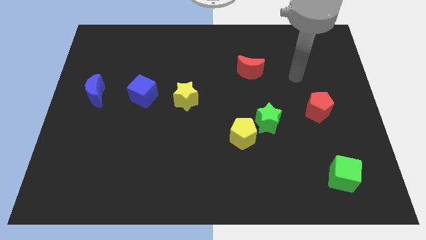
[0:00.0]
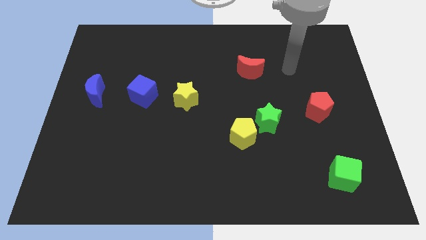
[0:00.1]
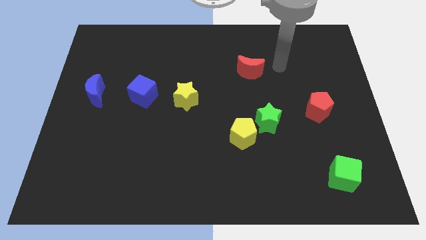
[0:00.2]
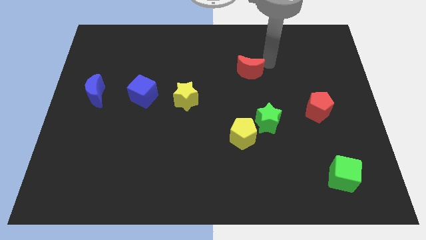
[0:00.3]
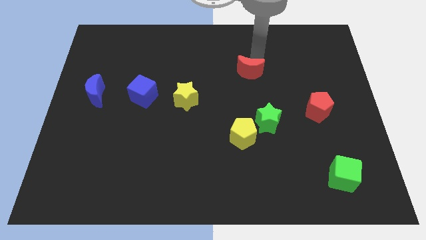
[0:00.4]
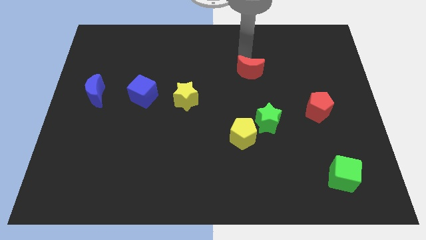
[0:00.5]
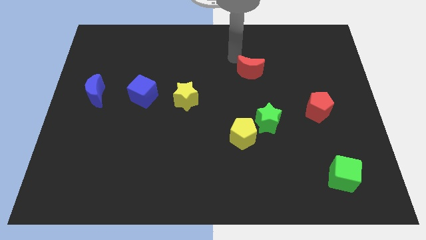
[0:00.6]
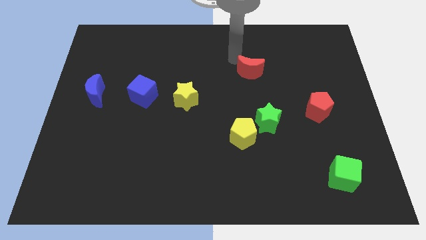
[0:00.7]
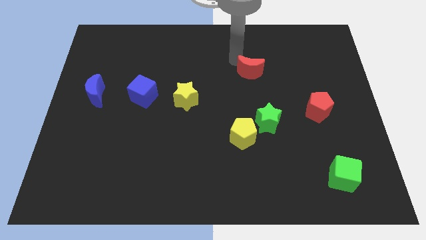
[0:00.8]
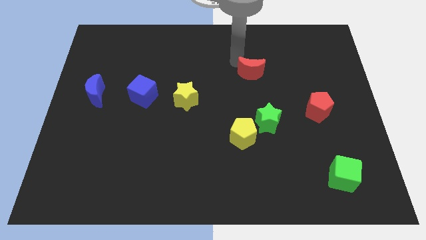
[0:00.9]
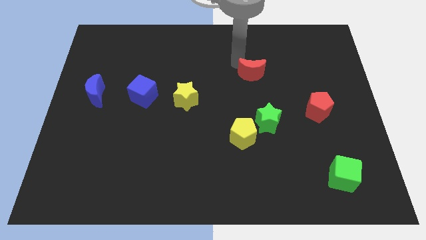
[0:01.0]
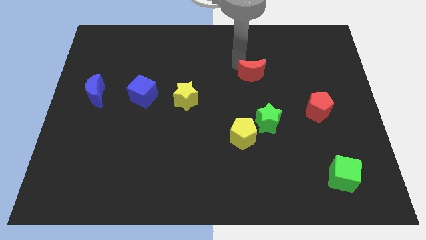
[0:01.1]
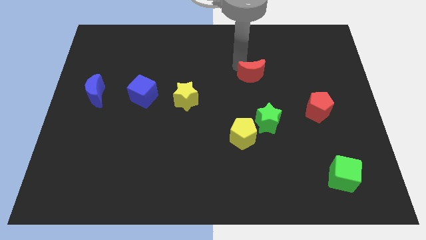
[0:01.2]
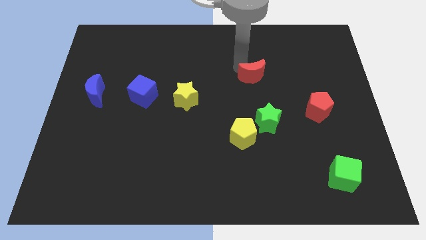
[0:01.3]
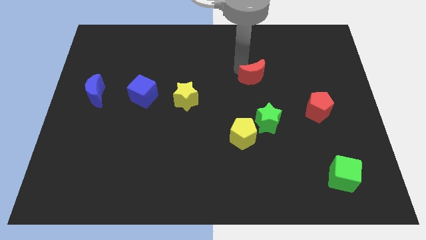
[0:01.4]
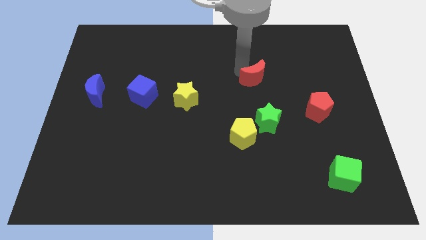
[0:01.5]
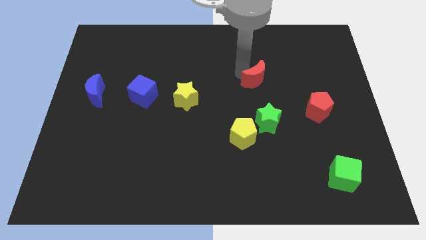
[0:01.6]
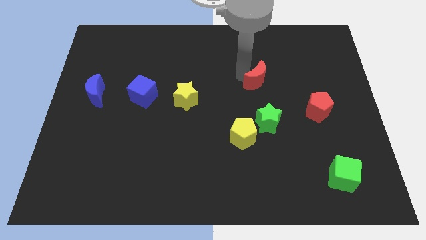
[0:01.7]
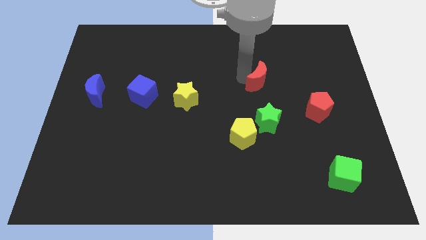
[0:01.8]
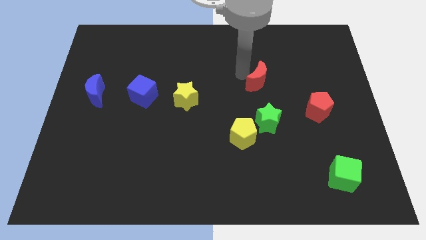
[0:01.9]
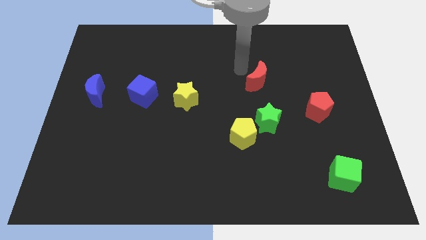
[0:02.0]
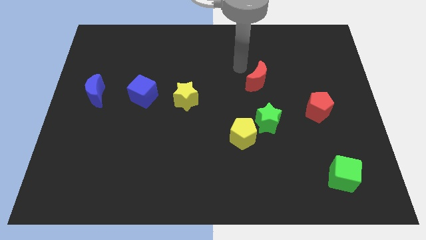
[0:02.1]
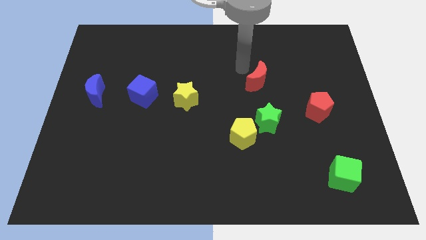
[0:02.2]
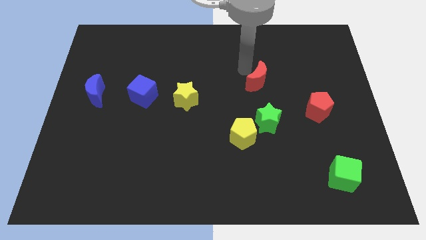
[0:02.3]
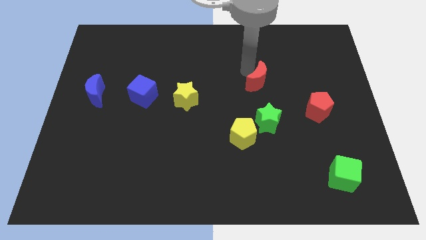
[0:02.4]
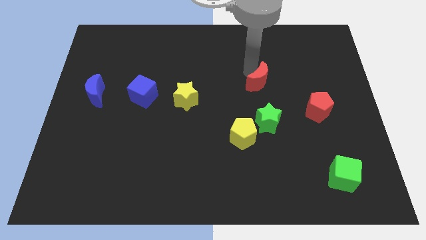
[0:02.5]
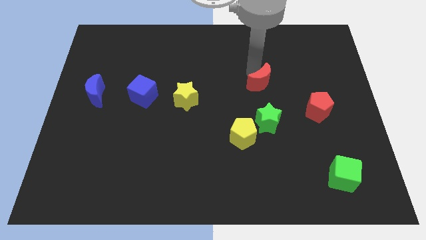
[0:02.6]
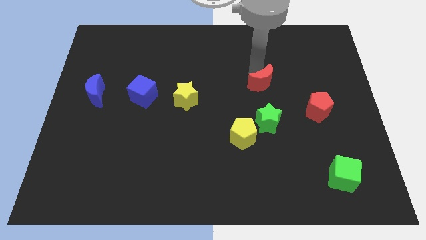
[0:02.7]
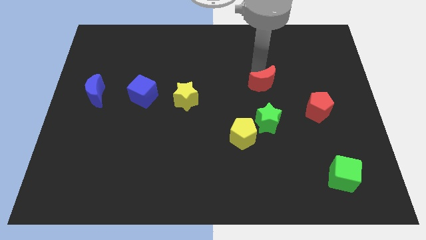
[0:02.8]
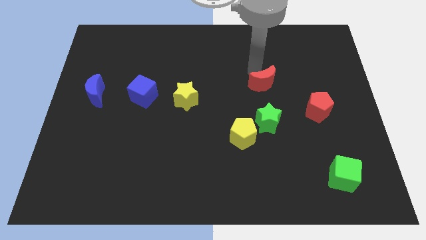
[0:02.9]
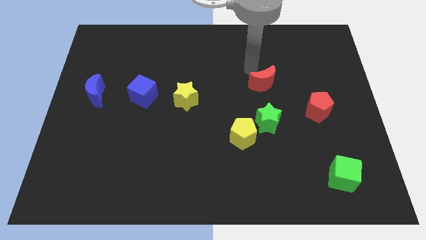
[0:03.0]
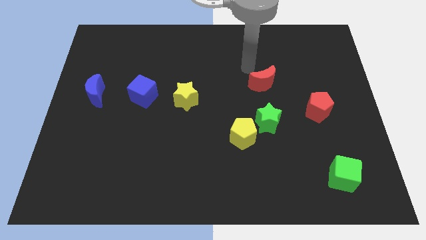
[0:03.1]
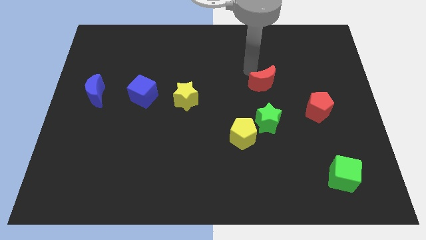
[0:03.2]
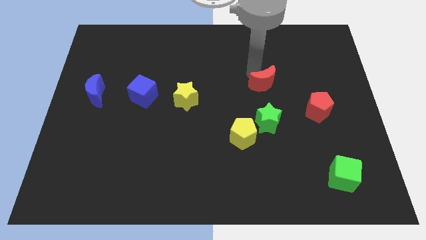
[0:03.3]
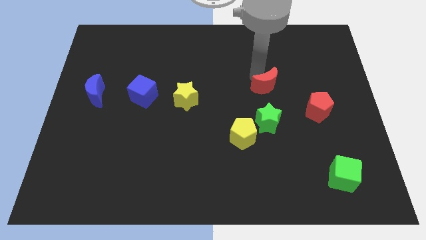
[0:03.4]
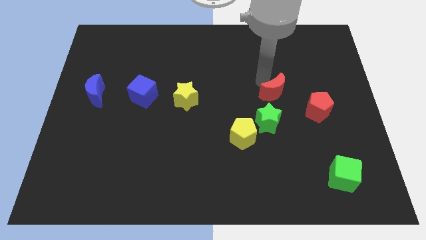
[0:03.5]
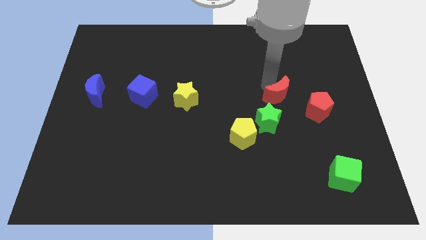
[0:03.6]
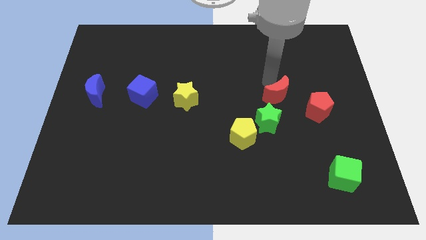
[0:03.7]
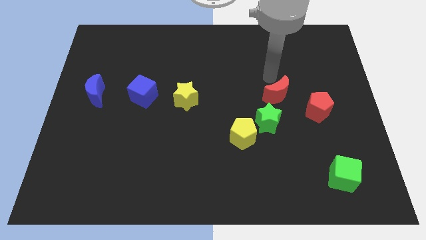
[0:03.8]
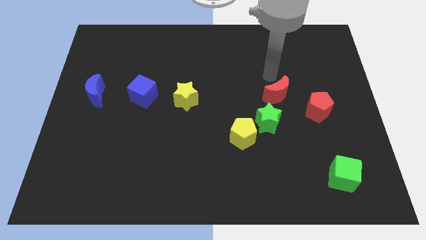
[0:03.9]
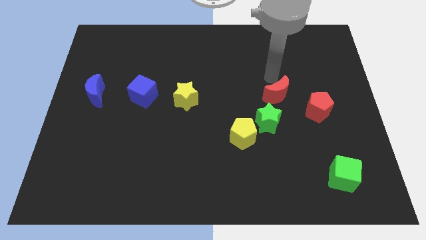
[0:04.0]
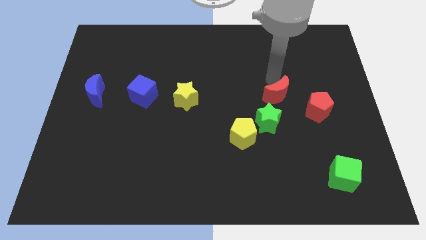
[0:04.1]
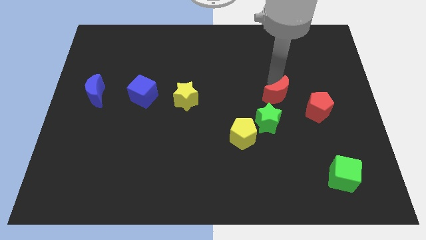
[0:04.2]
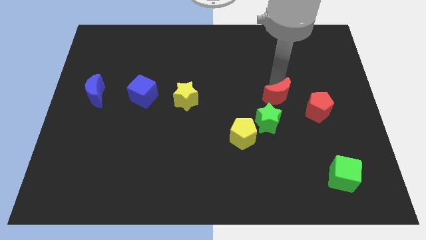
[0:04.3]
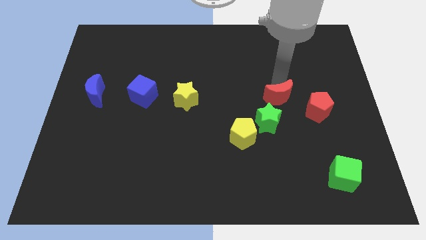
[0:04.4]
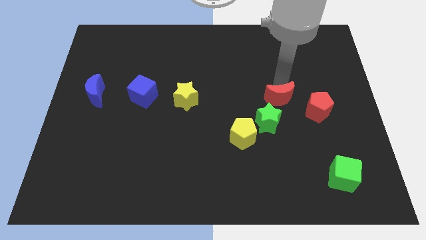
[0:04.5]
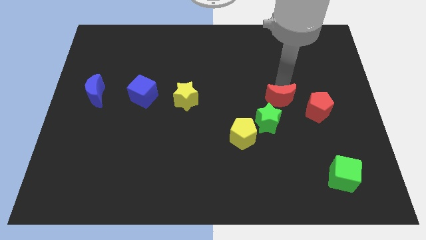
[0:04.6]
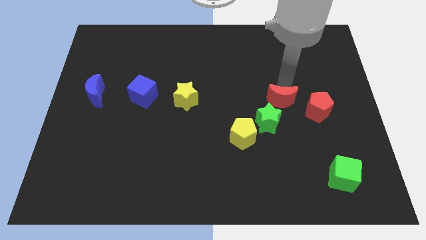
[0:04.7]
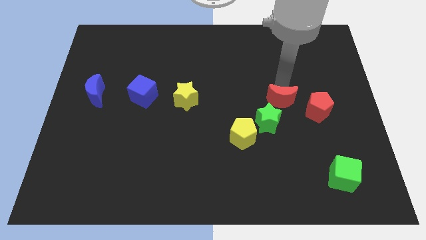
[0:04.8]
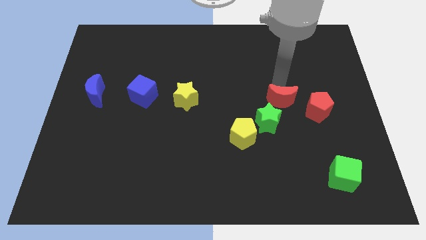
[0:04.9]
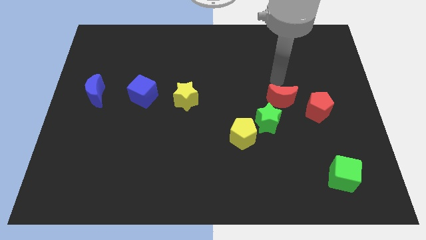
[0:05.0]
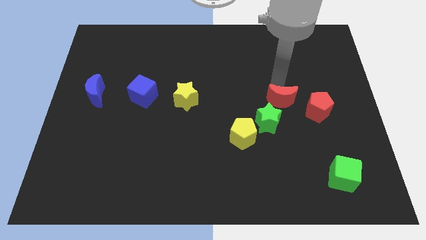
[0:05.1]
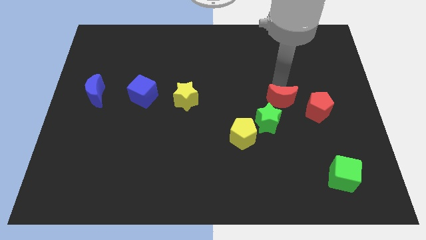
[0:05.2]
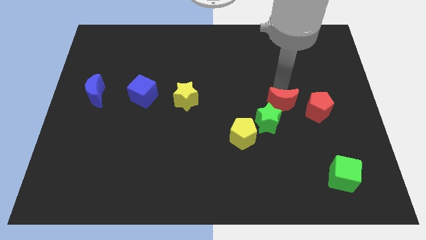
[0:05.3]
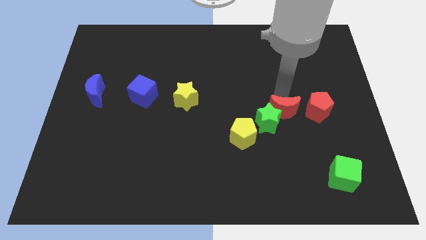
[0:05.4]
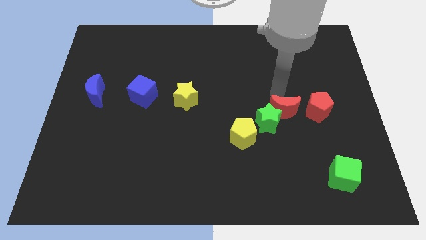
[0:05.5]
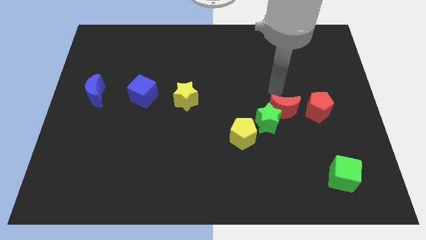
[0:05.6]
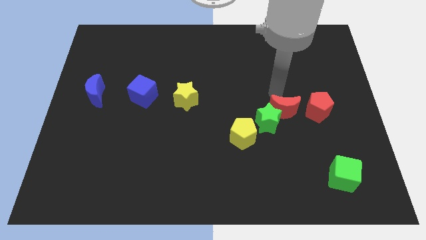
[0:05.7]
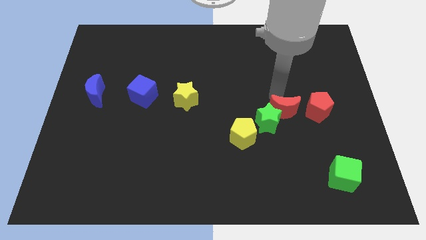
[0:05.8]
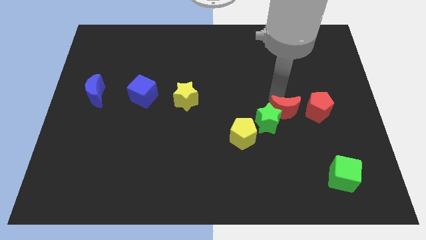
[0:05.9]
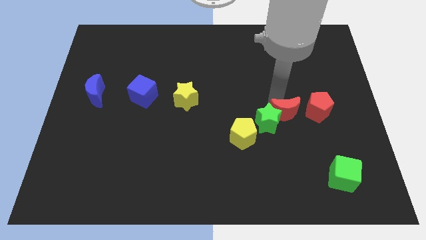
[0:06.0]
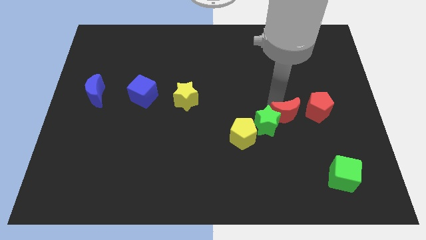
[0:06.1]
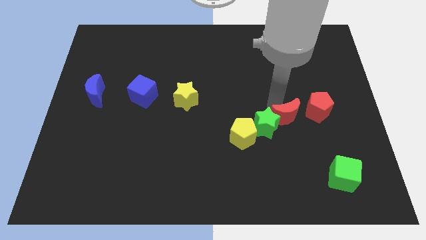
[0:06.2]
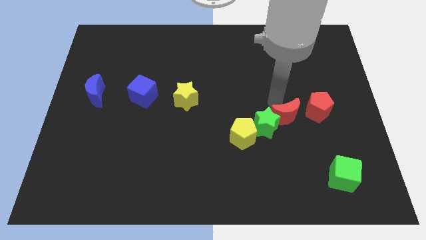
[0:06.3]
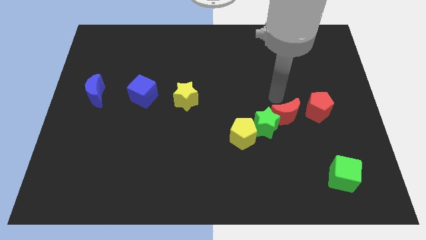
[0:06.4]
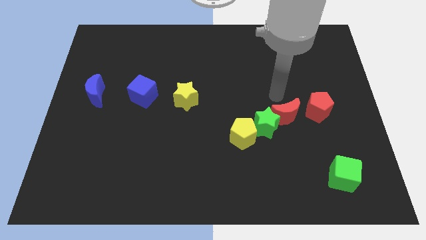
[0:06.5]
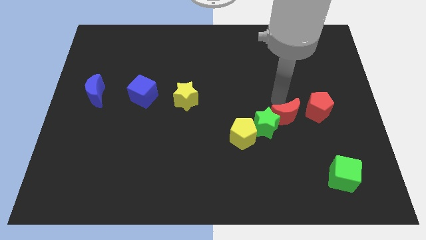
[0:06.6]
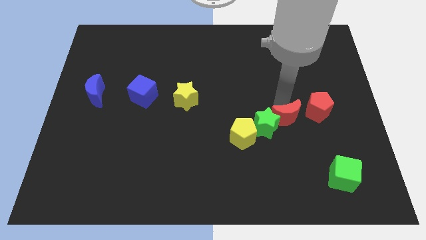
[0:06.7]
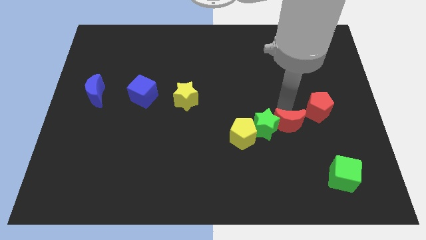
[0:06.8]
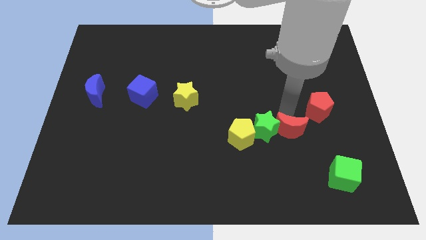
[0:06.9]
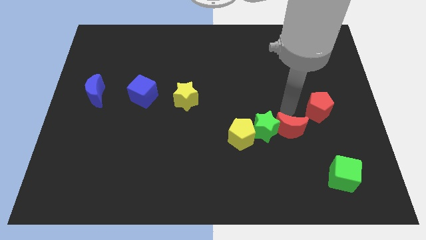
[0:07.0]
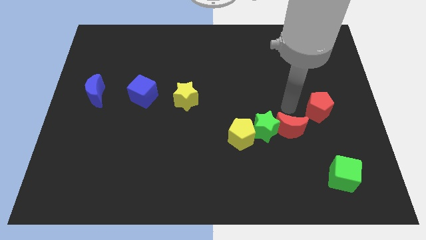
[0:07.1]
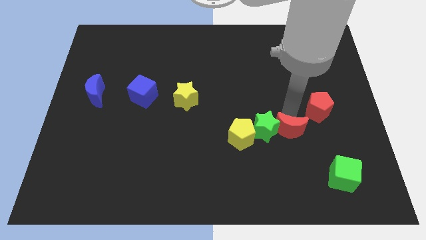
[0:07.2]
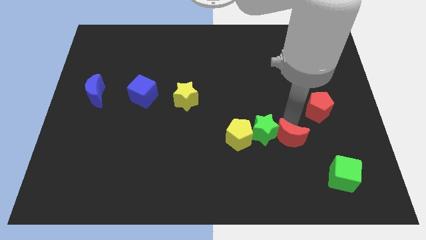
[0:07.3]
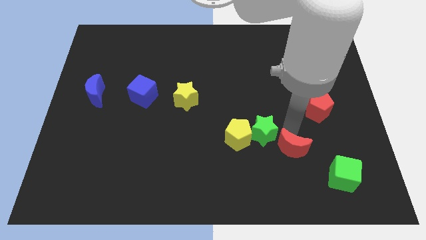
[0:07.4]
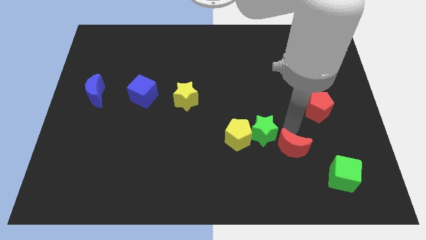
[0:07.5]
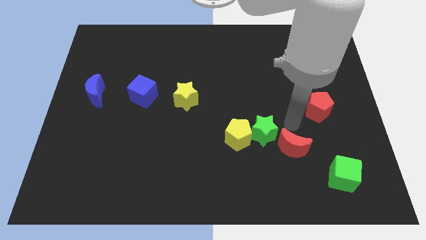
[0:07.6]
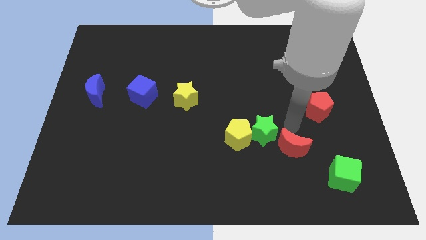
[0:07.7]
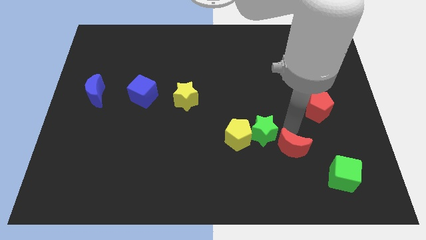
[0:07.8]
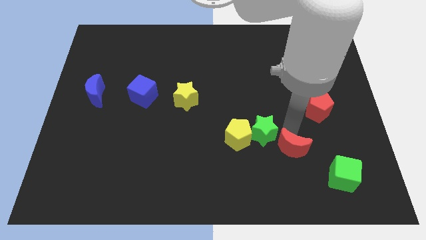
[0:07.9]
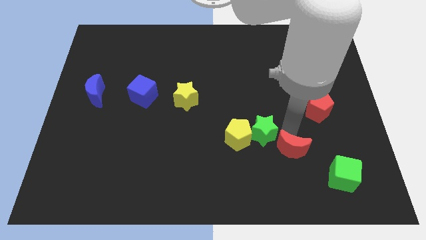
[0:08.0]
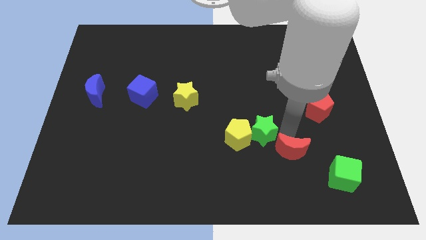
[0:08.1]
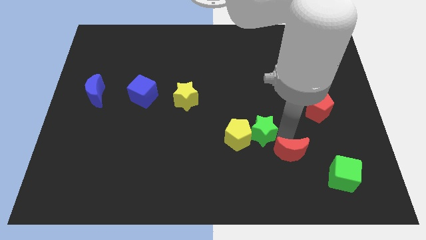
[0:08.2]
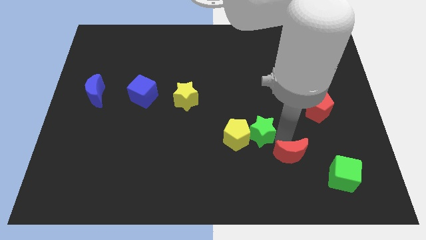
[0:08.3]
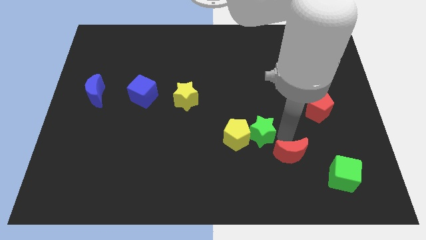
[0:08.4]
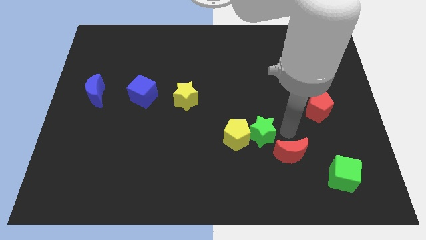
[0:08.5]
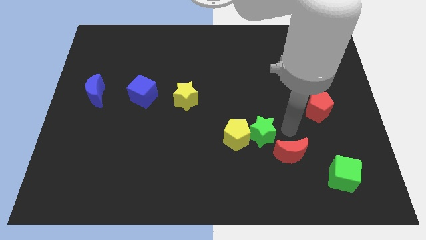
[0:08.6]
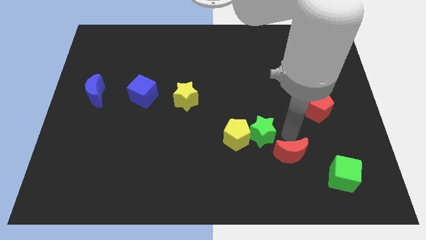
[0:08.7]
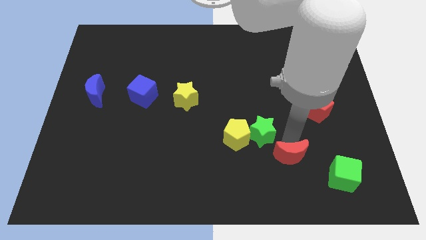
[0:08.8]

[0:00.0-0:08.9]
slide the red moon to the left of the green cube
